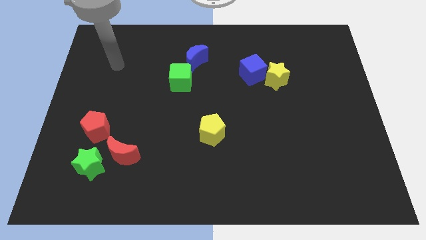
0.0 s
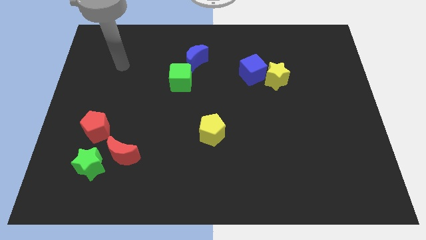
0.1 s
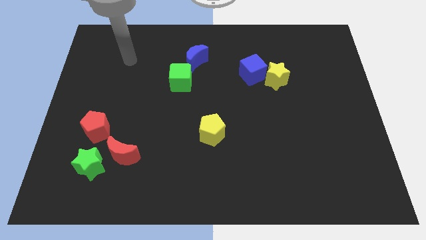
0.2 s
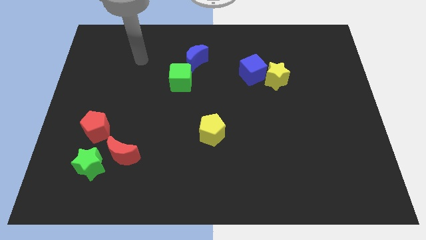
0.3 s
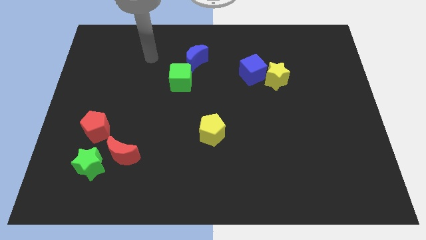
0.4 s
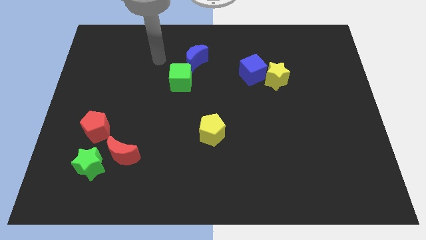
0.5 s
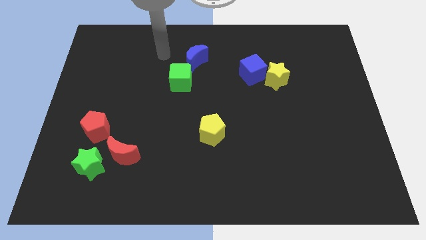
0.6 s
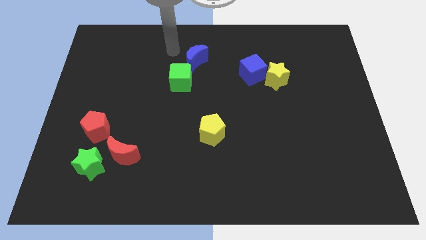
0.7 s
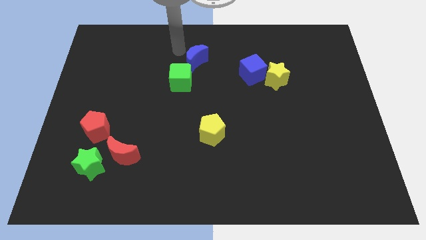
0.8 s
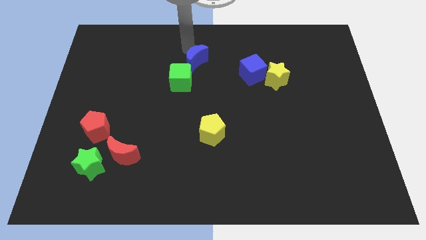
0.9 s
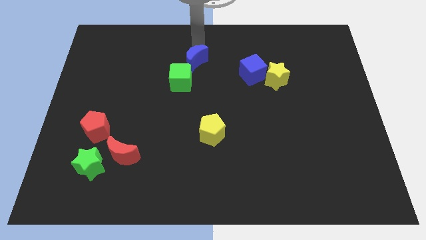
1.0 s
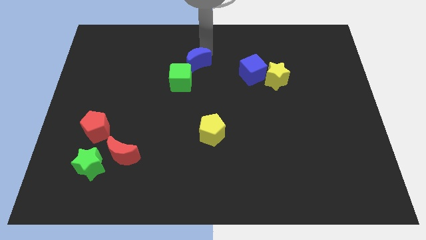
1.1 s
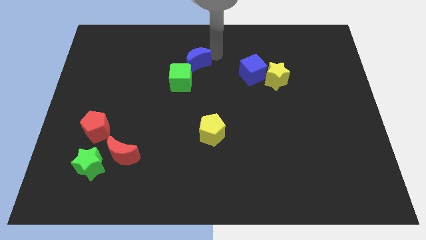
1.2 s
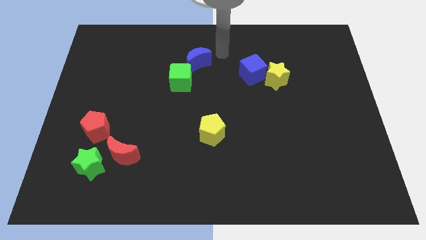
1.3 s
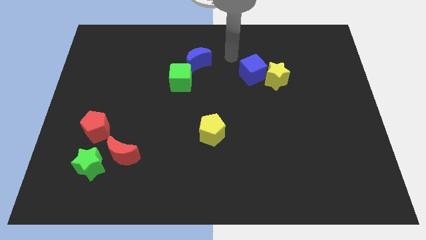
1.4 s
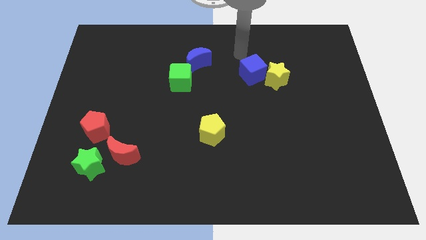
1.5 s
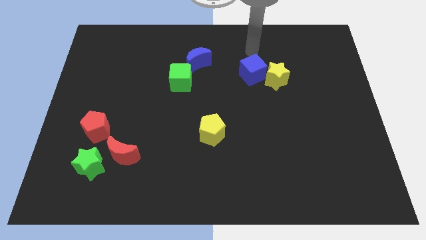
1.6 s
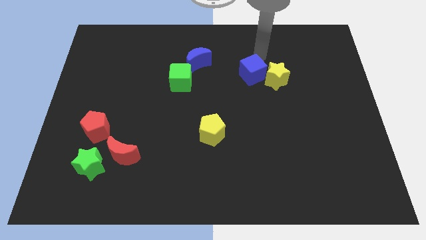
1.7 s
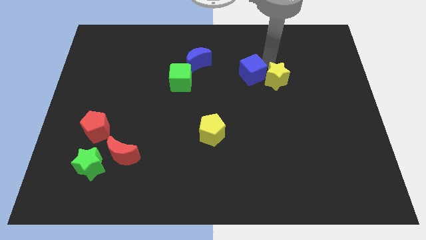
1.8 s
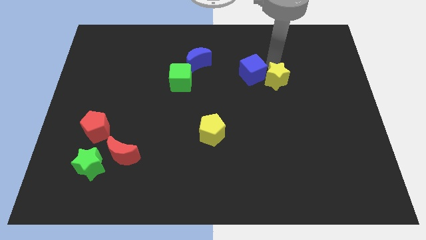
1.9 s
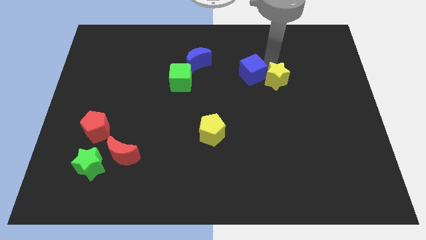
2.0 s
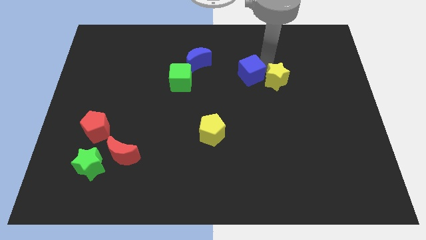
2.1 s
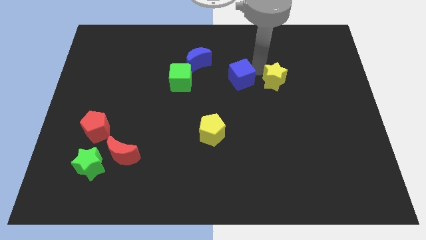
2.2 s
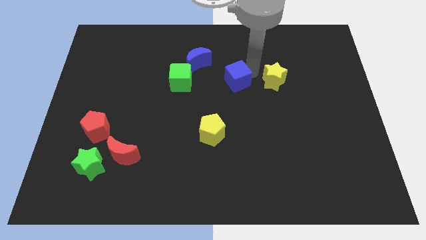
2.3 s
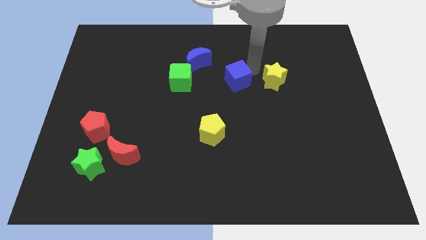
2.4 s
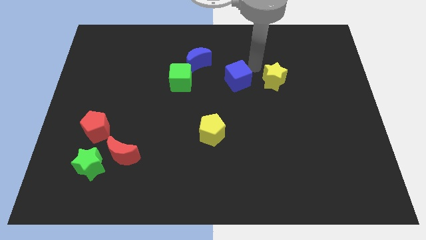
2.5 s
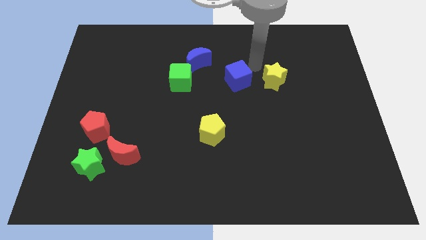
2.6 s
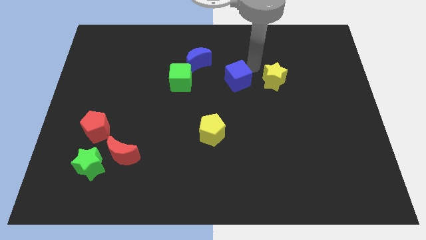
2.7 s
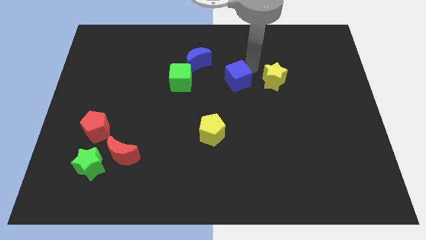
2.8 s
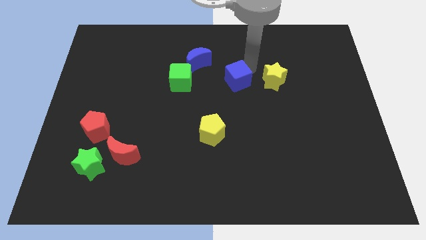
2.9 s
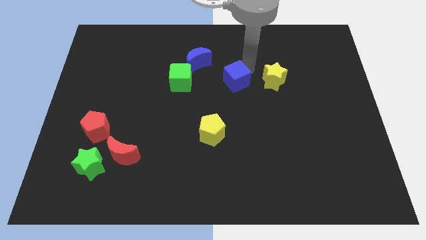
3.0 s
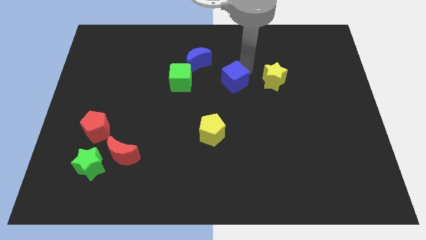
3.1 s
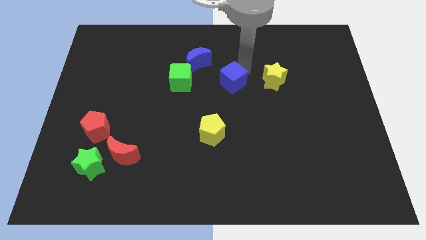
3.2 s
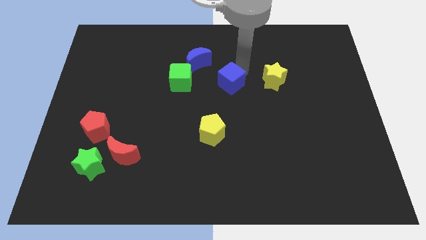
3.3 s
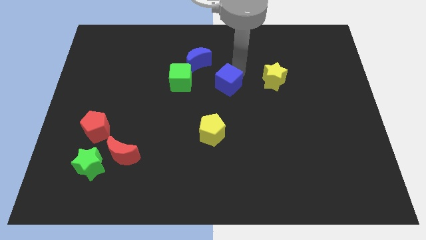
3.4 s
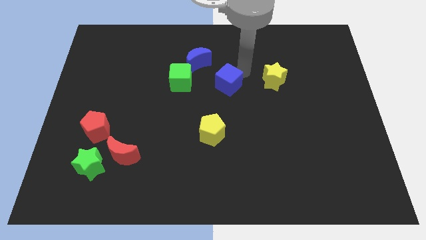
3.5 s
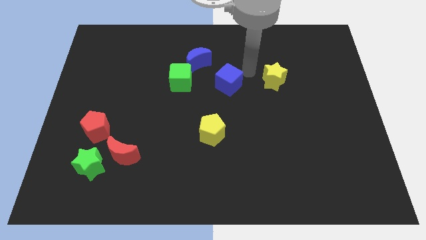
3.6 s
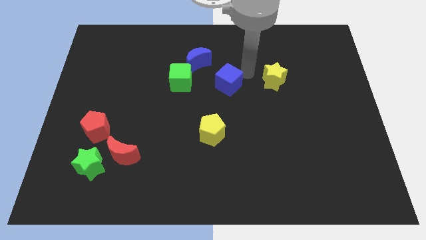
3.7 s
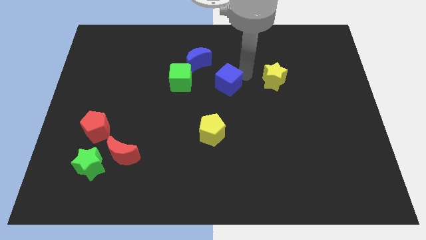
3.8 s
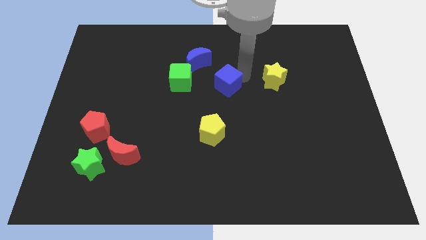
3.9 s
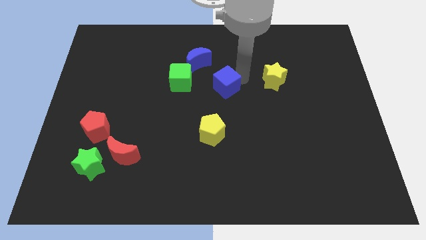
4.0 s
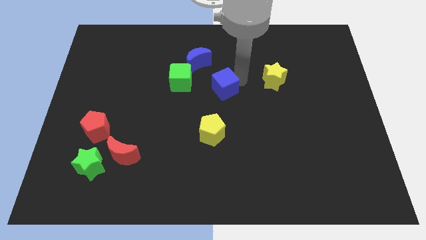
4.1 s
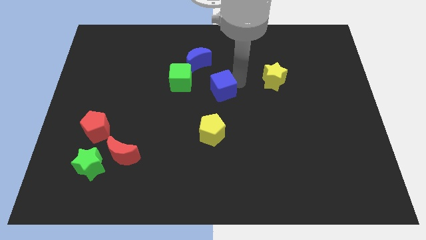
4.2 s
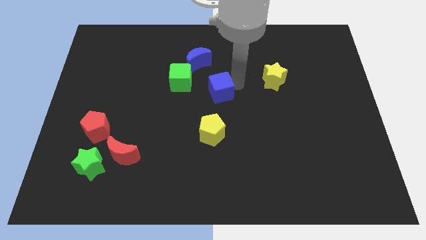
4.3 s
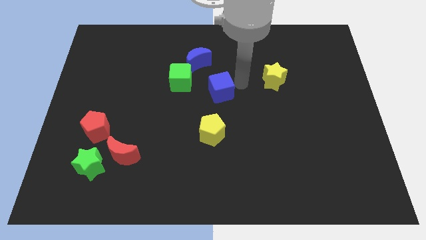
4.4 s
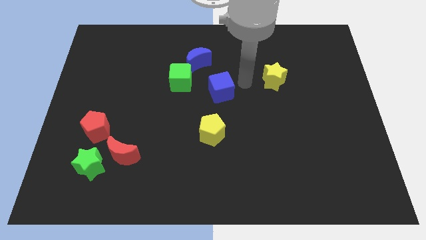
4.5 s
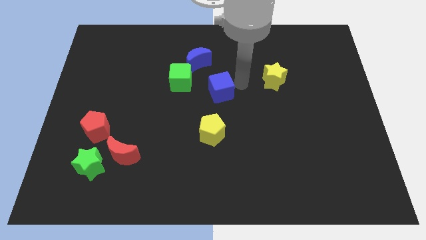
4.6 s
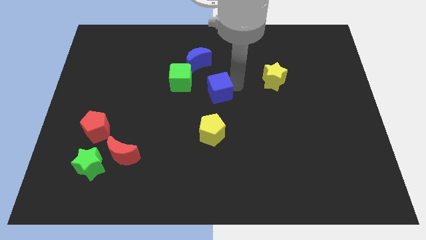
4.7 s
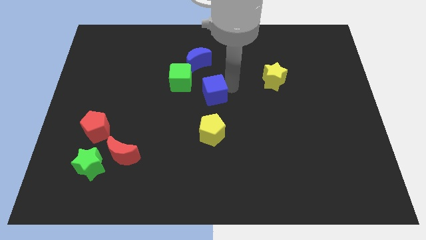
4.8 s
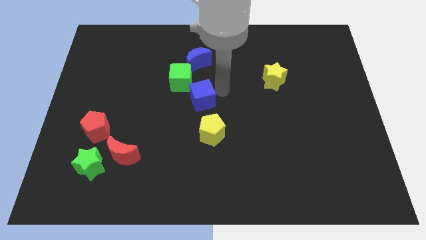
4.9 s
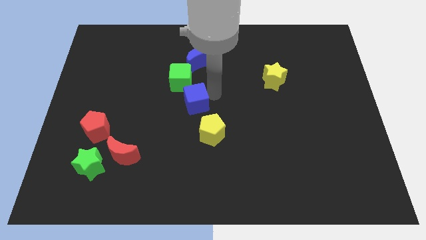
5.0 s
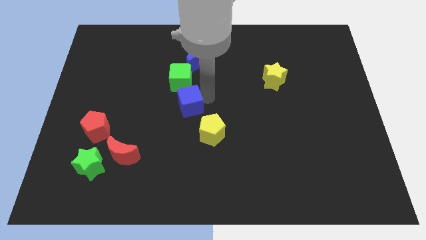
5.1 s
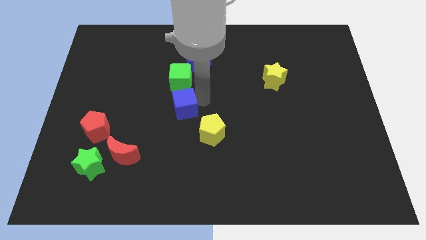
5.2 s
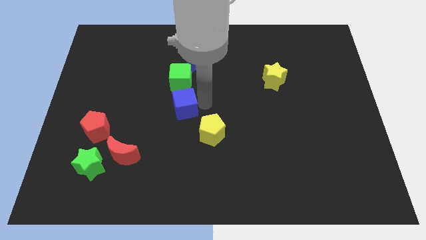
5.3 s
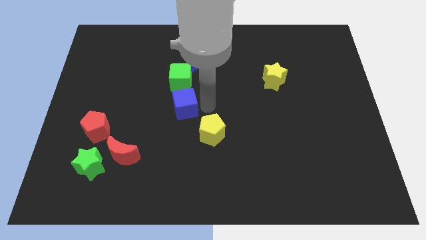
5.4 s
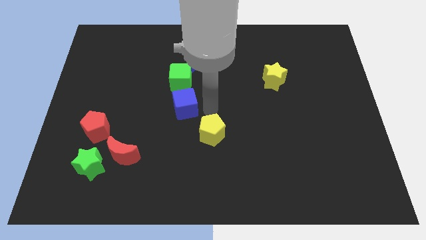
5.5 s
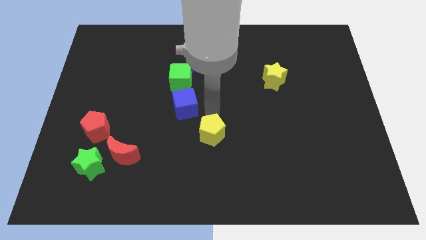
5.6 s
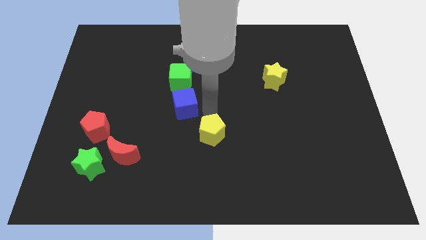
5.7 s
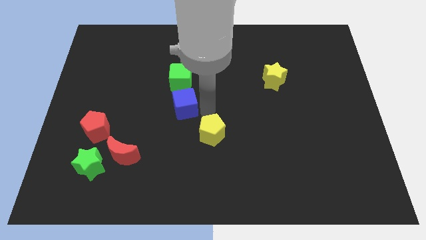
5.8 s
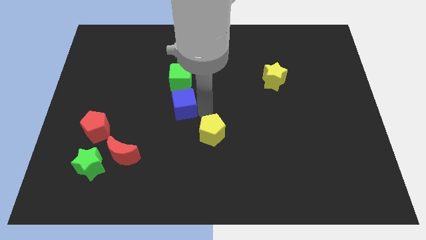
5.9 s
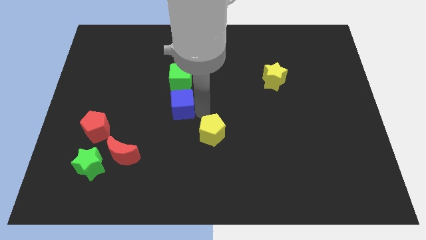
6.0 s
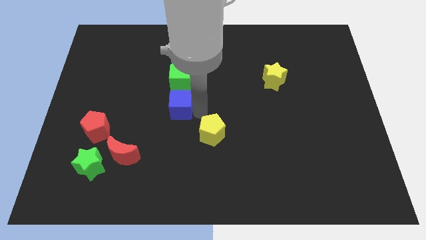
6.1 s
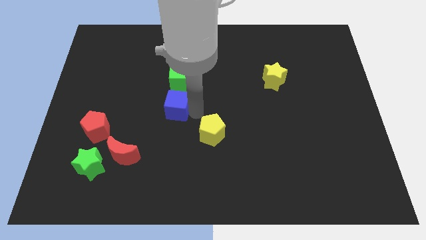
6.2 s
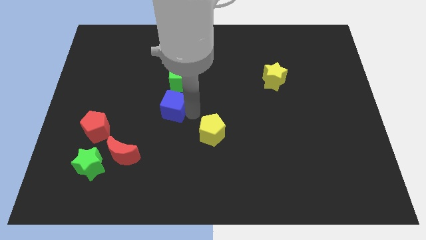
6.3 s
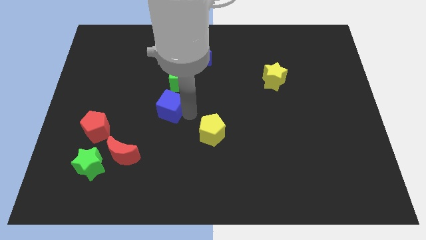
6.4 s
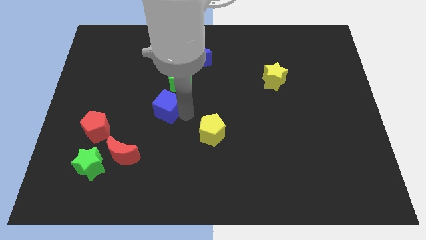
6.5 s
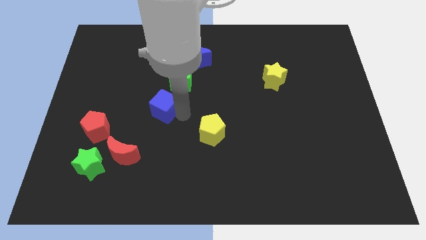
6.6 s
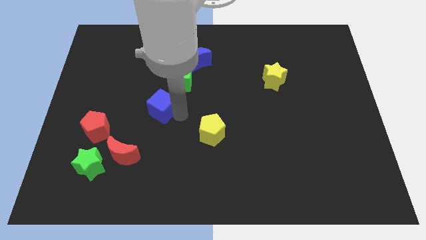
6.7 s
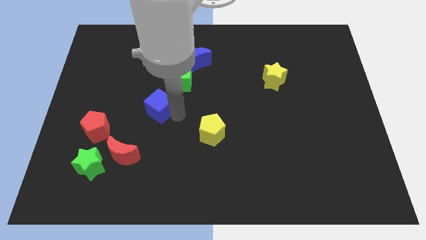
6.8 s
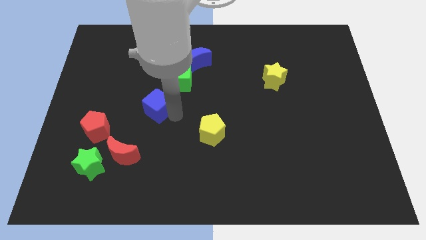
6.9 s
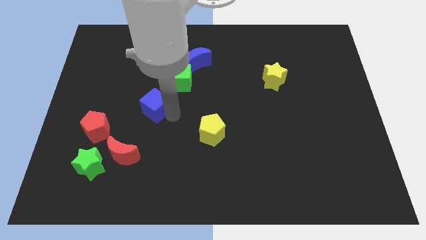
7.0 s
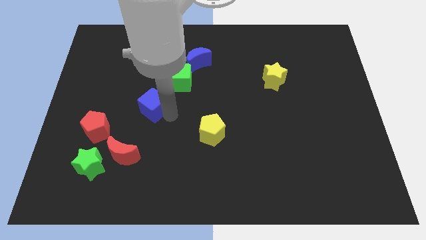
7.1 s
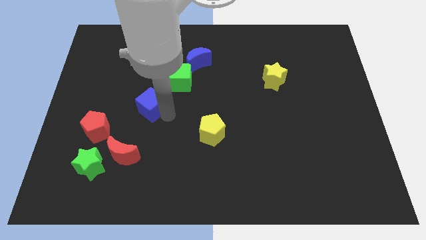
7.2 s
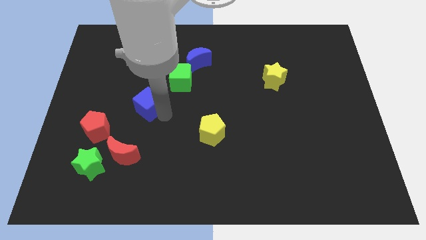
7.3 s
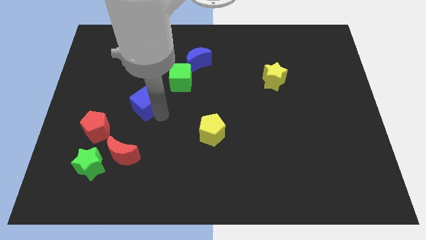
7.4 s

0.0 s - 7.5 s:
push the blue cube left

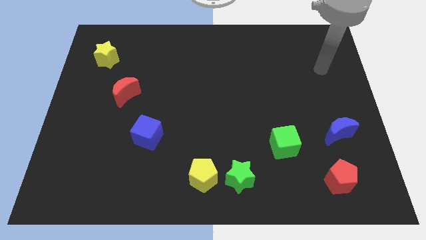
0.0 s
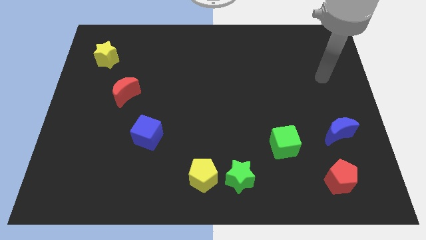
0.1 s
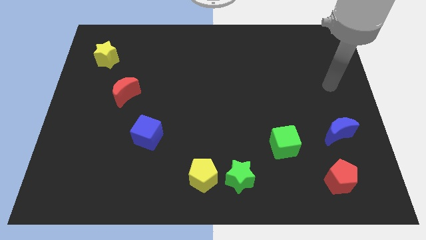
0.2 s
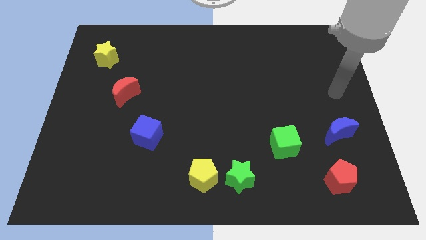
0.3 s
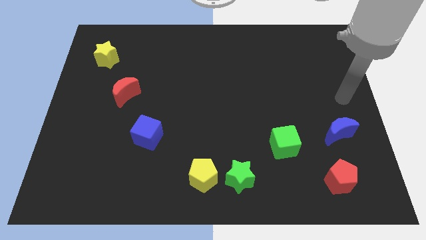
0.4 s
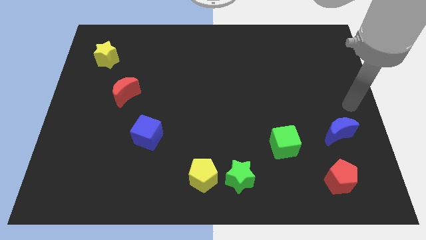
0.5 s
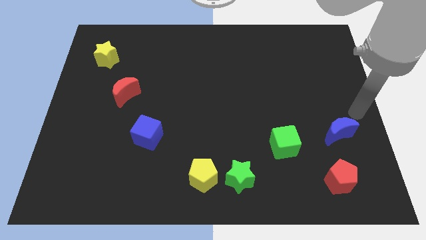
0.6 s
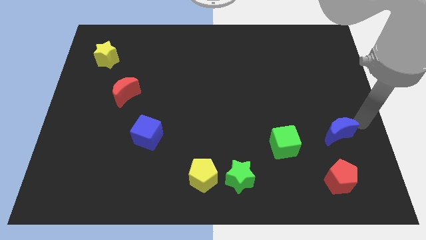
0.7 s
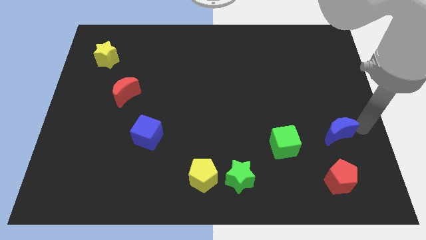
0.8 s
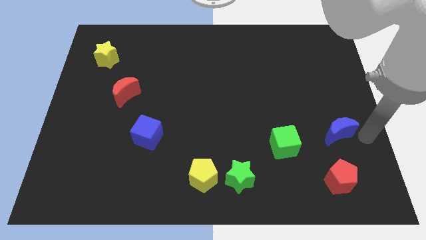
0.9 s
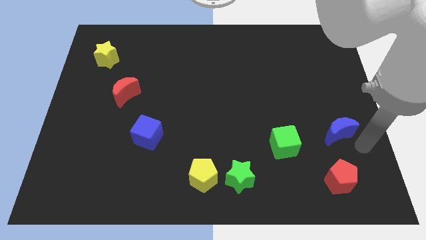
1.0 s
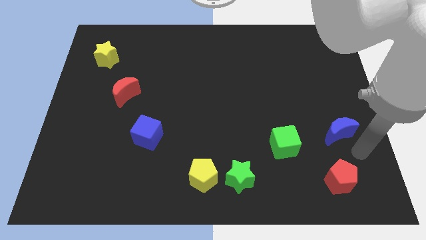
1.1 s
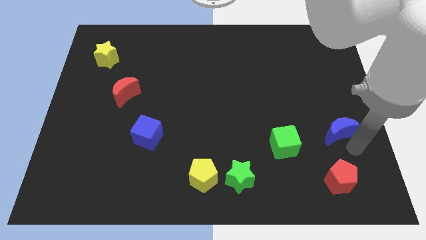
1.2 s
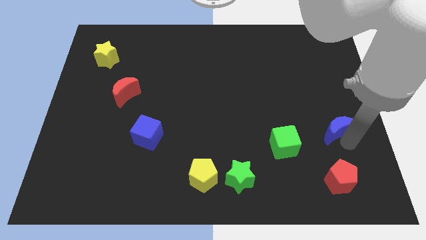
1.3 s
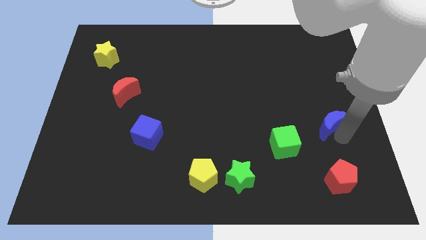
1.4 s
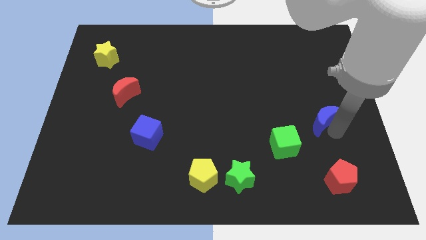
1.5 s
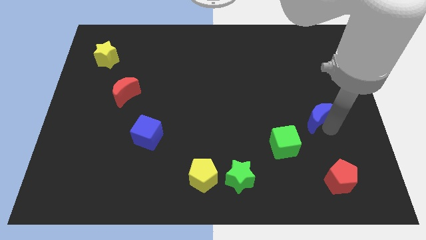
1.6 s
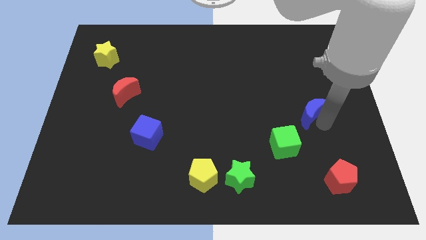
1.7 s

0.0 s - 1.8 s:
move the blue moon a bit upwards and to the left diagonally
